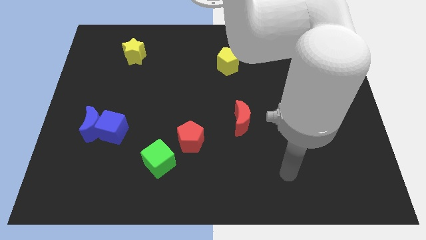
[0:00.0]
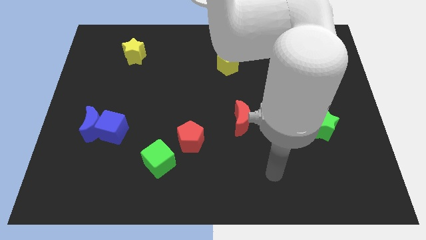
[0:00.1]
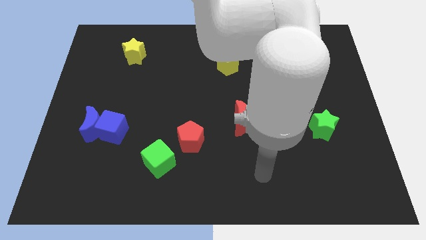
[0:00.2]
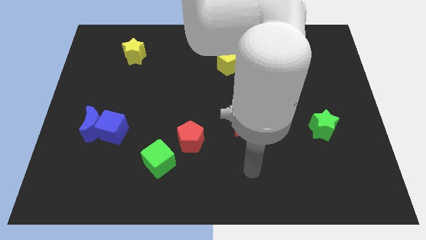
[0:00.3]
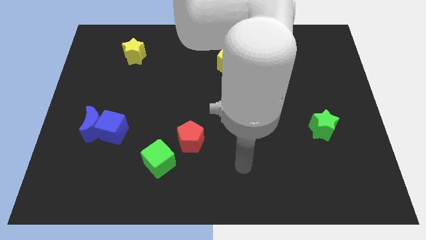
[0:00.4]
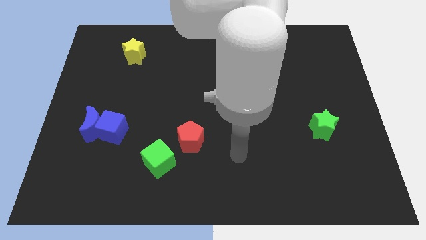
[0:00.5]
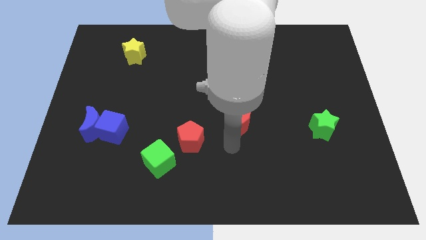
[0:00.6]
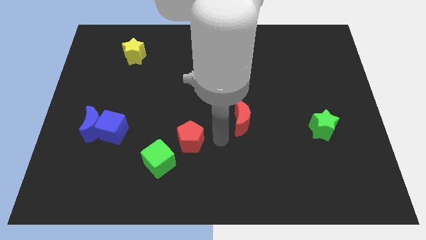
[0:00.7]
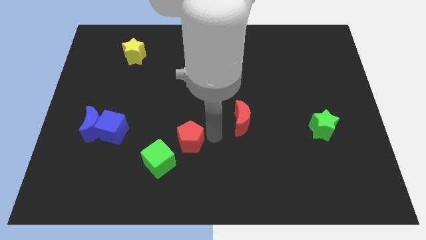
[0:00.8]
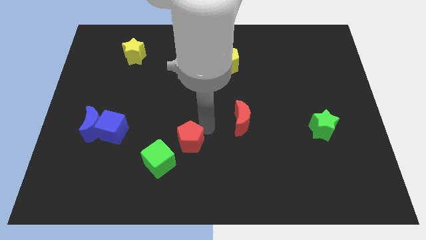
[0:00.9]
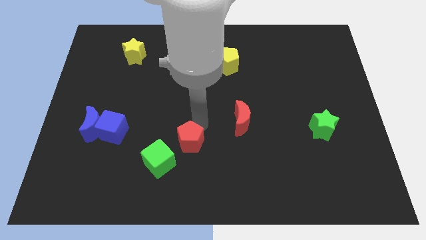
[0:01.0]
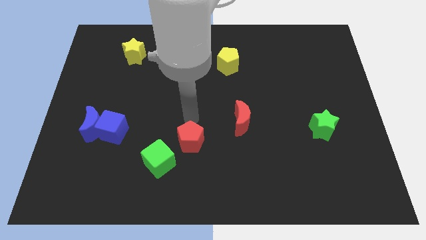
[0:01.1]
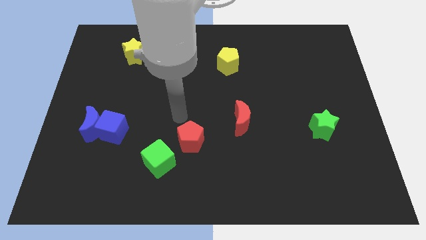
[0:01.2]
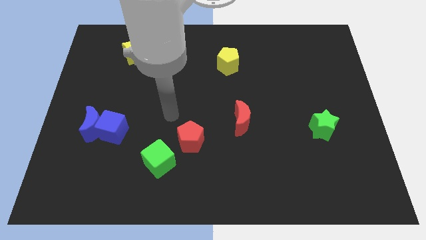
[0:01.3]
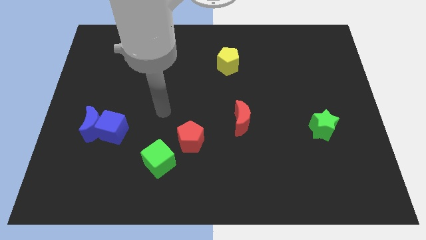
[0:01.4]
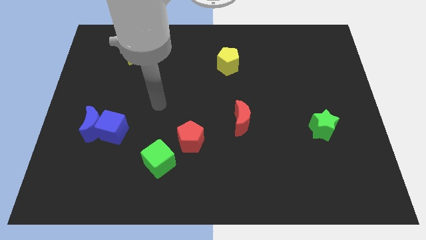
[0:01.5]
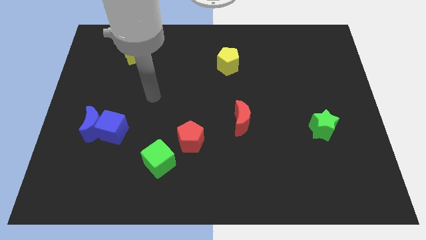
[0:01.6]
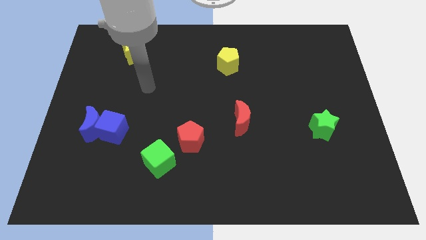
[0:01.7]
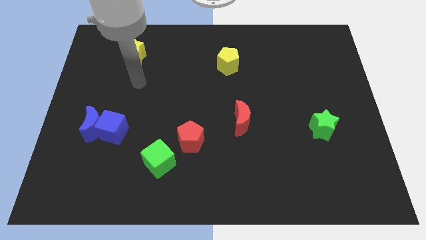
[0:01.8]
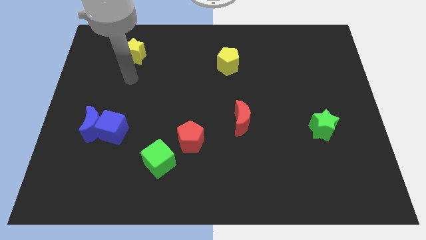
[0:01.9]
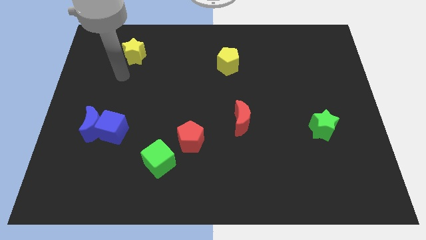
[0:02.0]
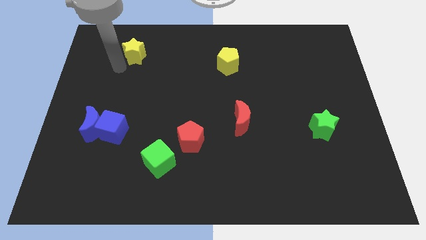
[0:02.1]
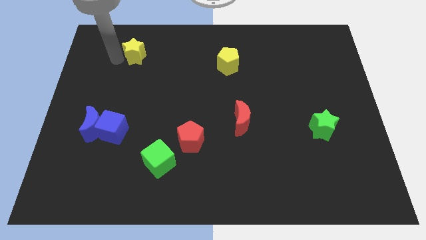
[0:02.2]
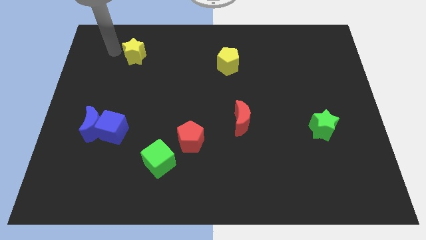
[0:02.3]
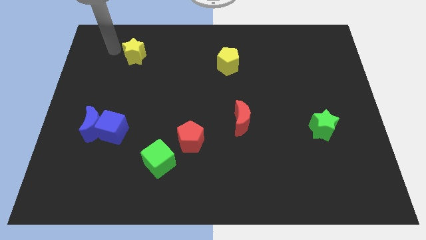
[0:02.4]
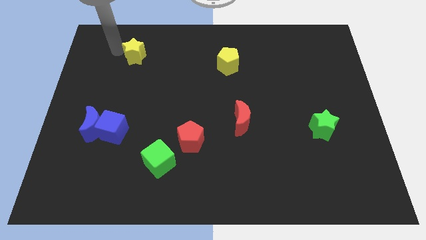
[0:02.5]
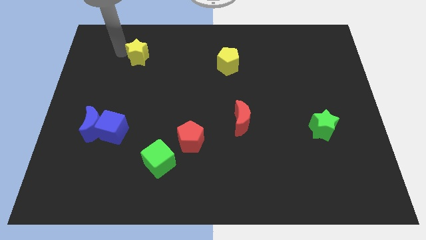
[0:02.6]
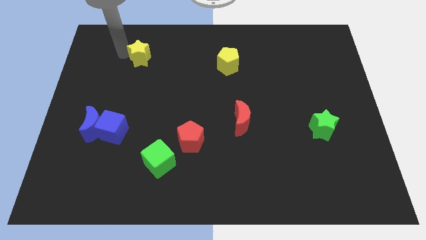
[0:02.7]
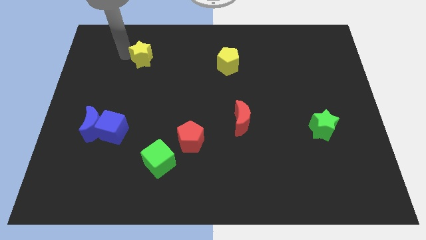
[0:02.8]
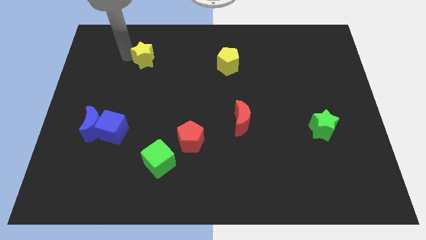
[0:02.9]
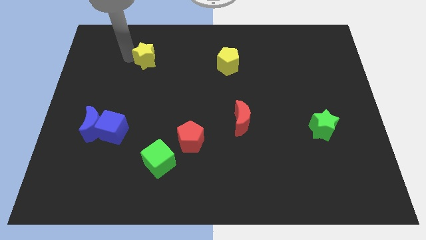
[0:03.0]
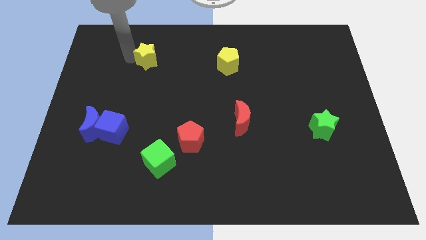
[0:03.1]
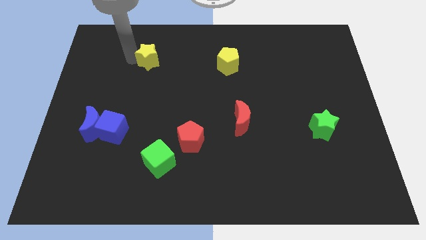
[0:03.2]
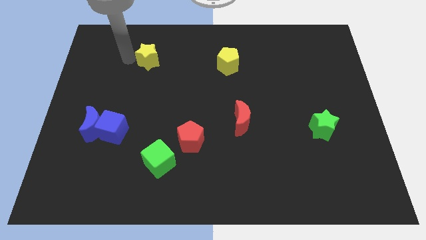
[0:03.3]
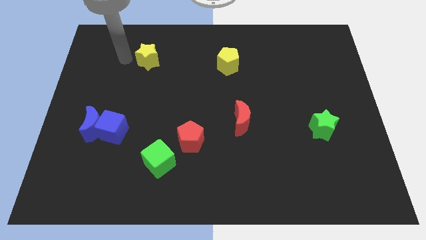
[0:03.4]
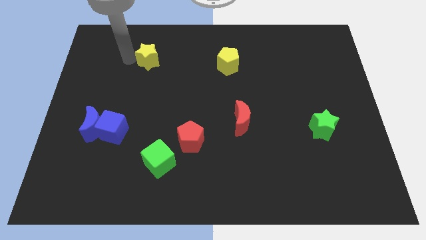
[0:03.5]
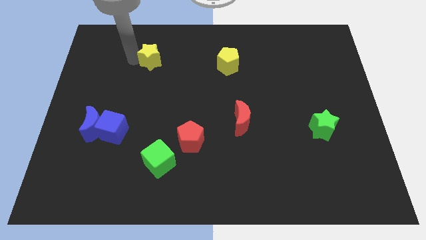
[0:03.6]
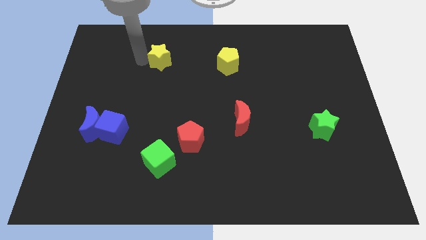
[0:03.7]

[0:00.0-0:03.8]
slightly slide the yellow star right

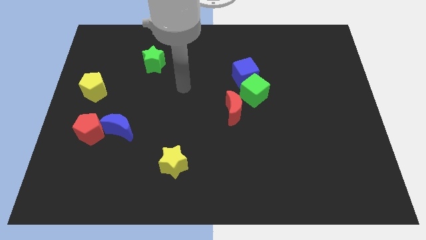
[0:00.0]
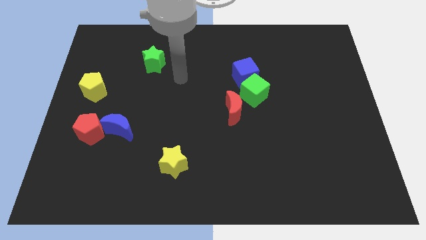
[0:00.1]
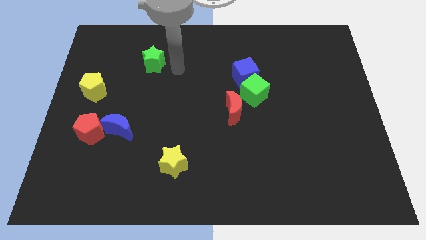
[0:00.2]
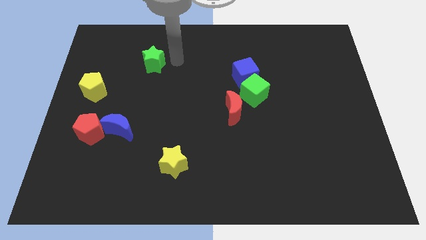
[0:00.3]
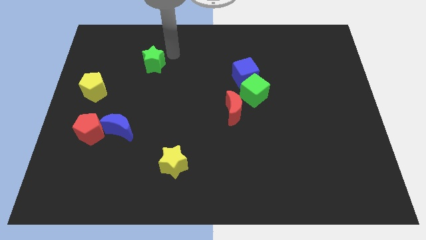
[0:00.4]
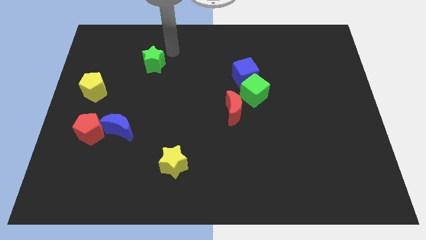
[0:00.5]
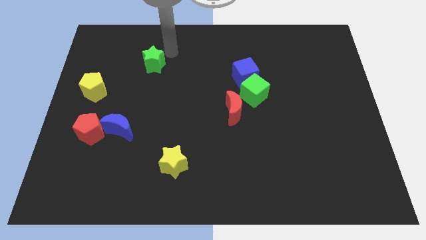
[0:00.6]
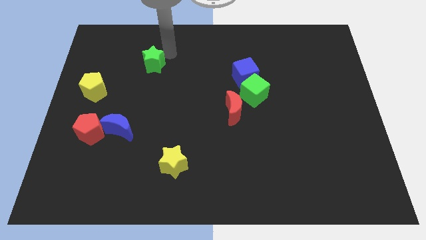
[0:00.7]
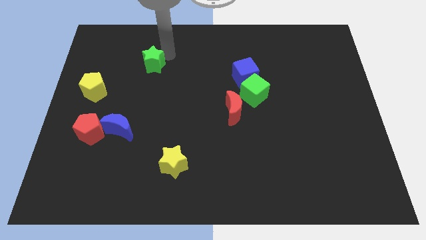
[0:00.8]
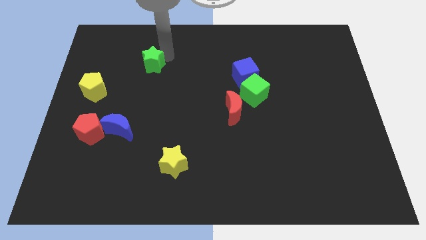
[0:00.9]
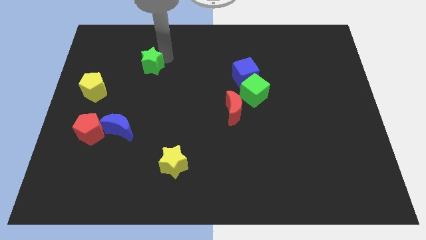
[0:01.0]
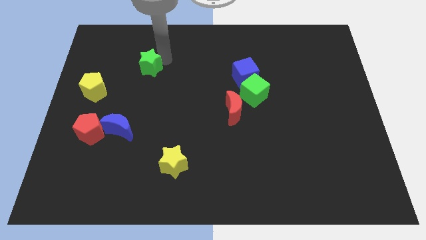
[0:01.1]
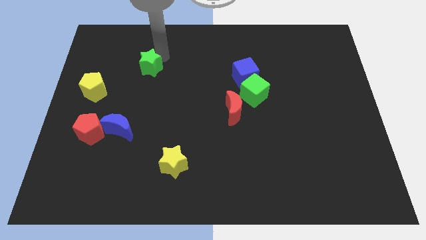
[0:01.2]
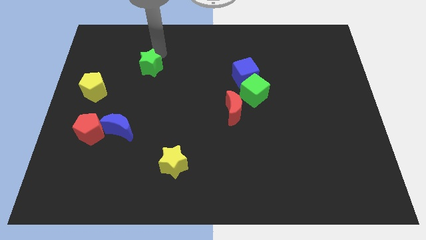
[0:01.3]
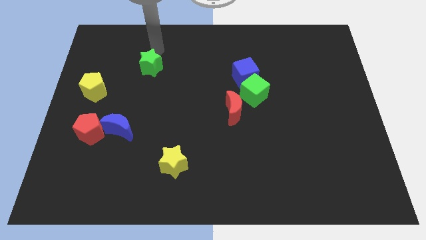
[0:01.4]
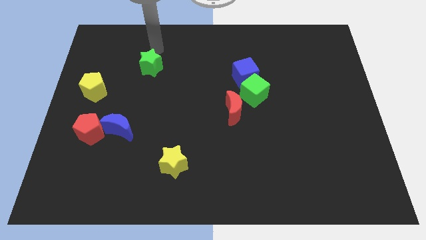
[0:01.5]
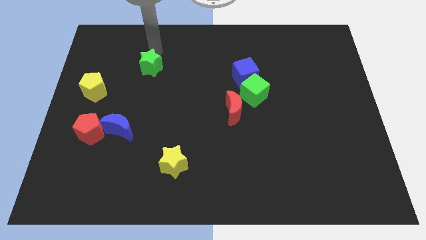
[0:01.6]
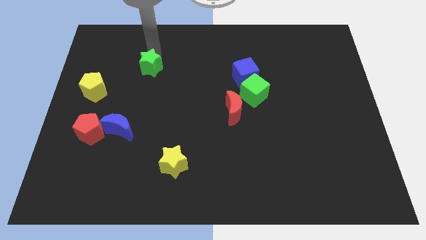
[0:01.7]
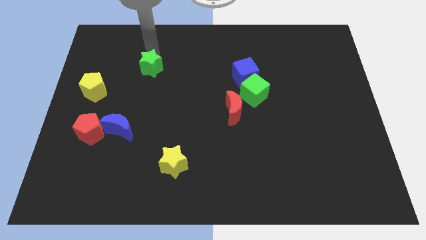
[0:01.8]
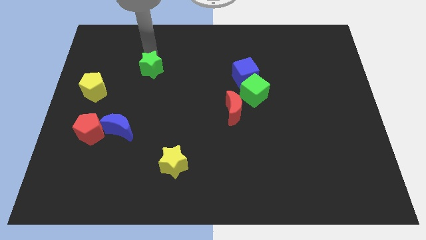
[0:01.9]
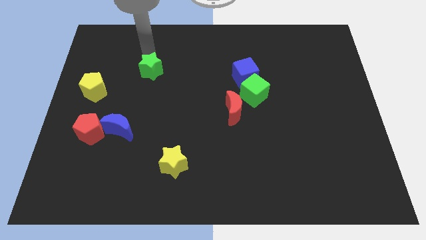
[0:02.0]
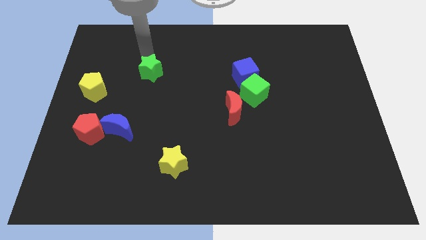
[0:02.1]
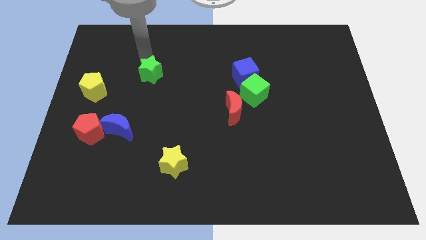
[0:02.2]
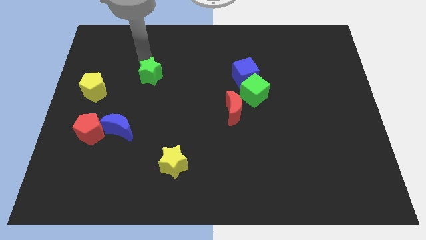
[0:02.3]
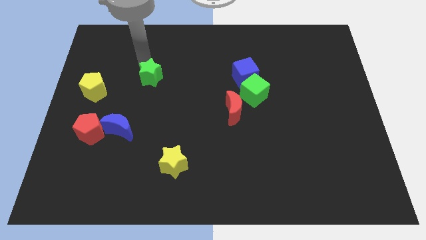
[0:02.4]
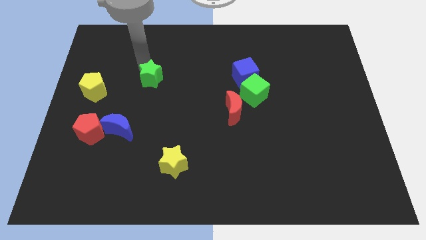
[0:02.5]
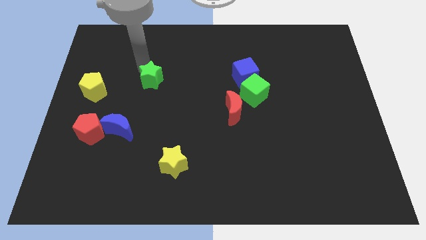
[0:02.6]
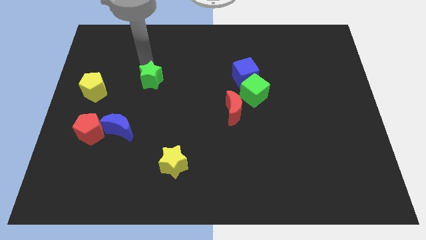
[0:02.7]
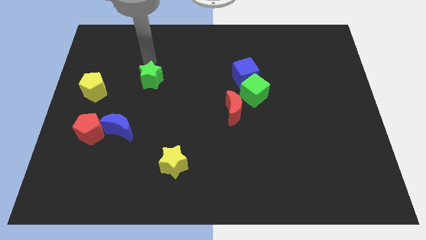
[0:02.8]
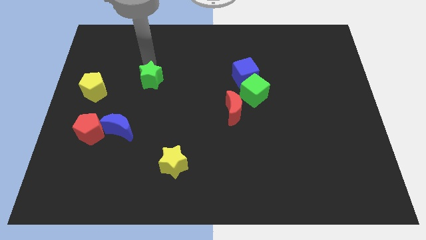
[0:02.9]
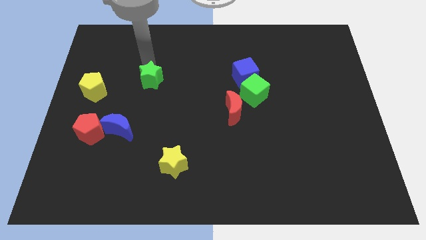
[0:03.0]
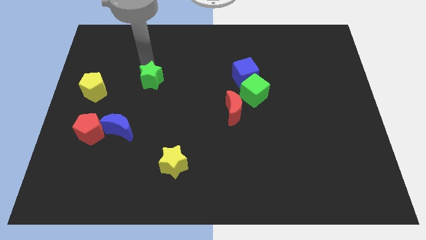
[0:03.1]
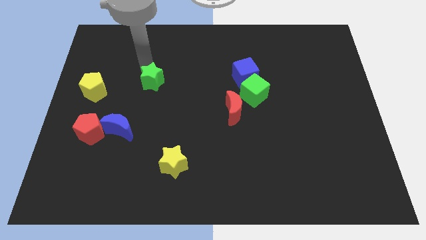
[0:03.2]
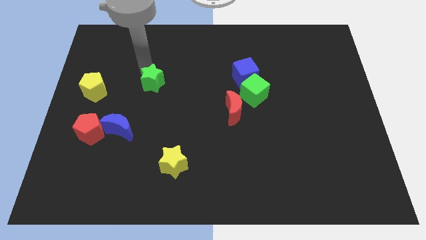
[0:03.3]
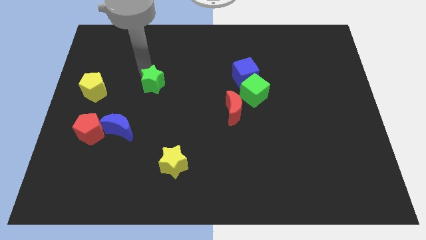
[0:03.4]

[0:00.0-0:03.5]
push the green star somewhat down

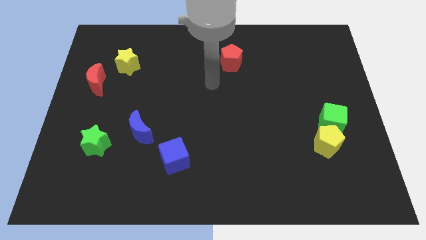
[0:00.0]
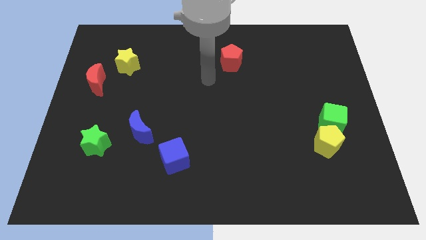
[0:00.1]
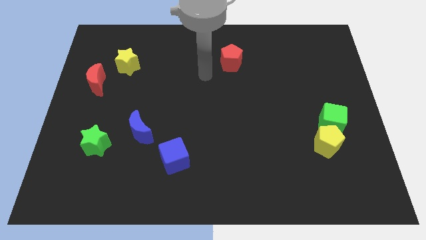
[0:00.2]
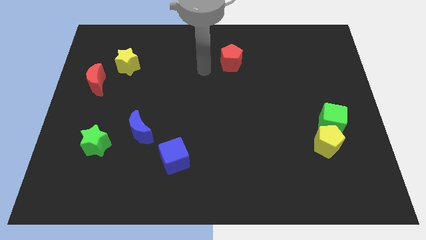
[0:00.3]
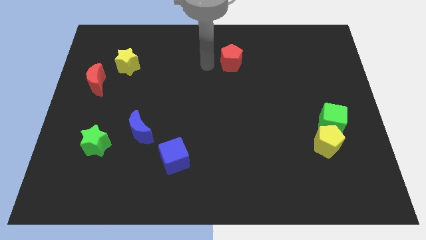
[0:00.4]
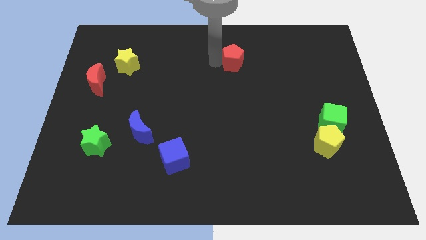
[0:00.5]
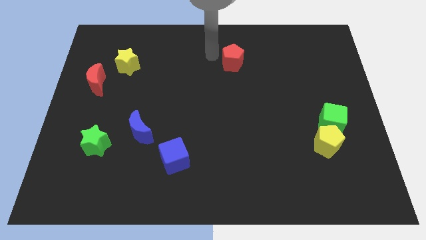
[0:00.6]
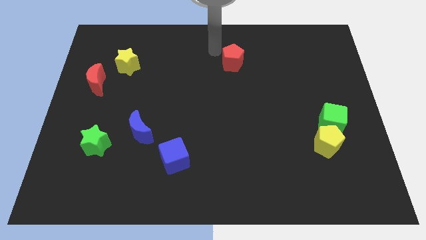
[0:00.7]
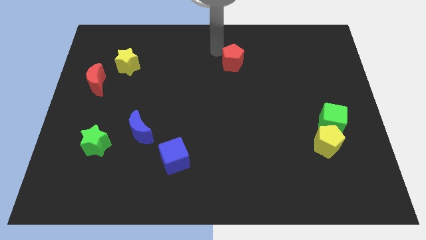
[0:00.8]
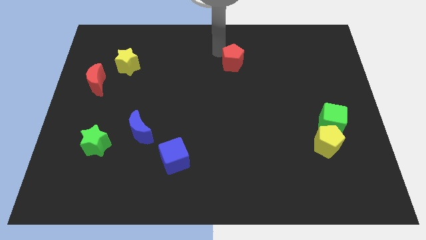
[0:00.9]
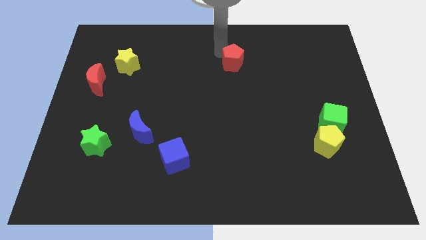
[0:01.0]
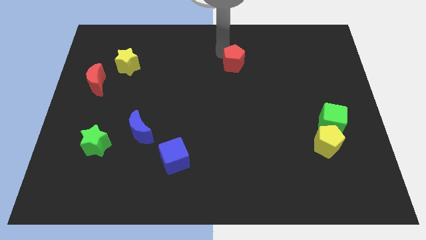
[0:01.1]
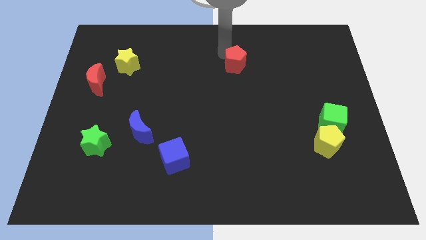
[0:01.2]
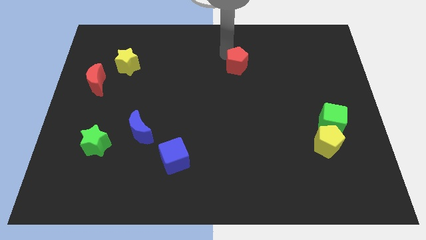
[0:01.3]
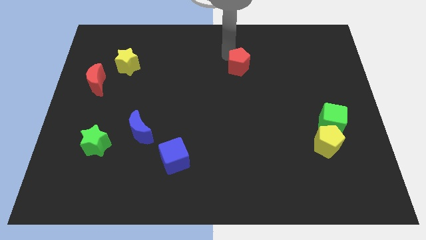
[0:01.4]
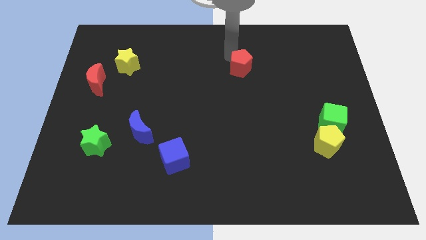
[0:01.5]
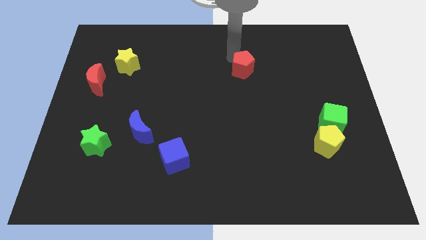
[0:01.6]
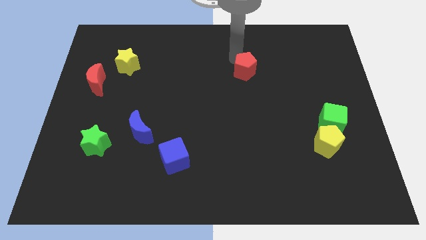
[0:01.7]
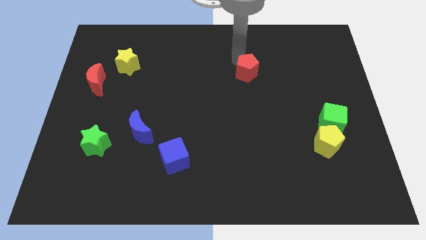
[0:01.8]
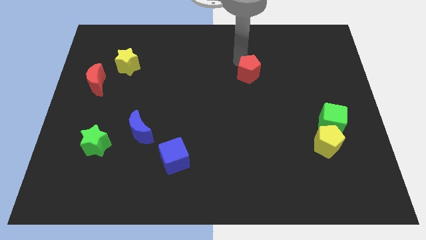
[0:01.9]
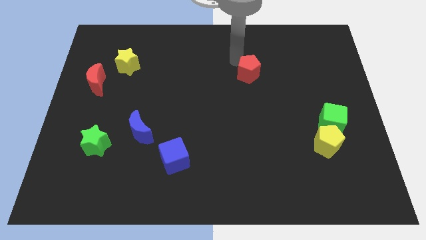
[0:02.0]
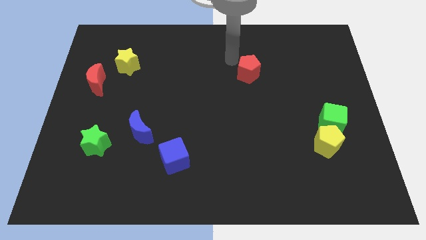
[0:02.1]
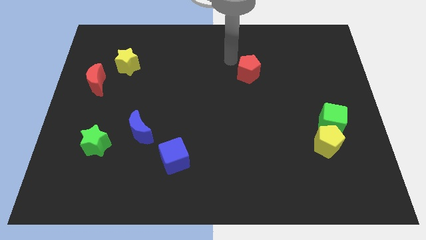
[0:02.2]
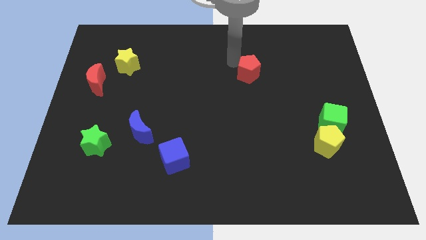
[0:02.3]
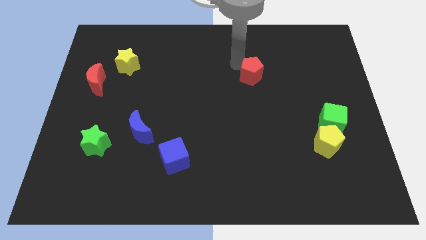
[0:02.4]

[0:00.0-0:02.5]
push the red pentagon somewhat downwards and right
